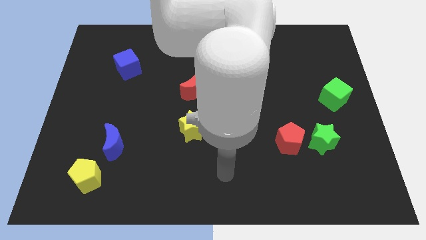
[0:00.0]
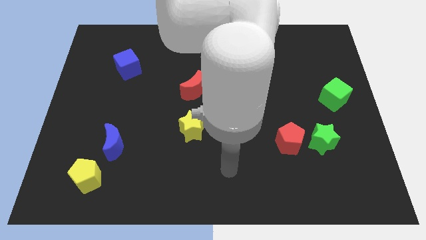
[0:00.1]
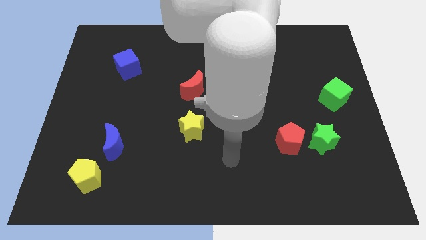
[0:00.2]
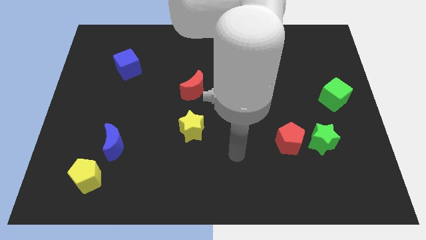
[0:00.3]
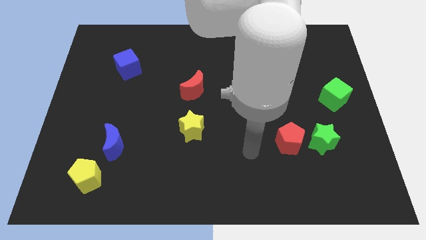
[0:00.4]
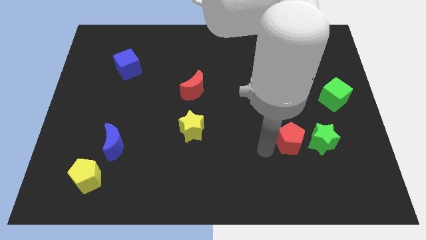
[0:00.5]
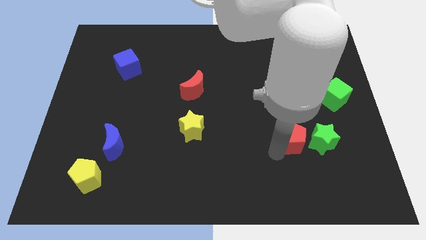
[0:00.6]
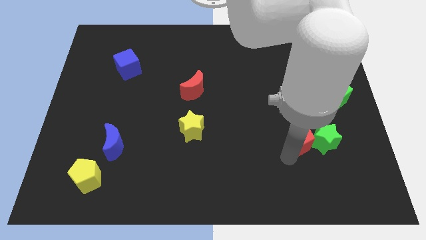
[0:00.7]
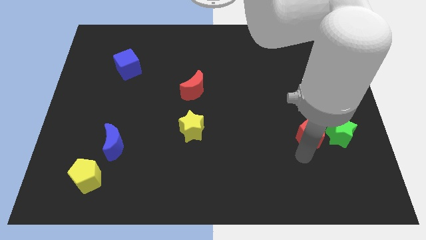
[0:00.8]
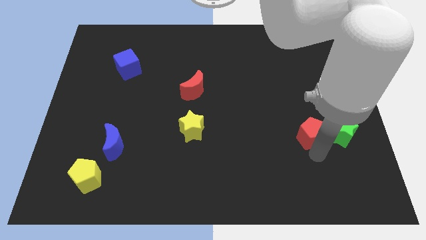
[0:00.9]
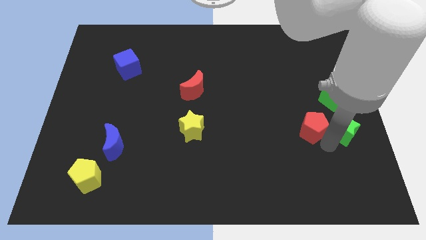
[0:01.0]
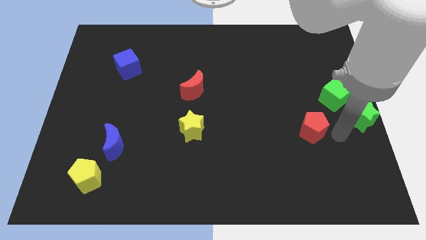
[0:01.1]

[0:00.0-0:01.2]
pull the red pentagon apart from the green star

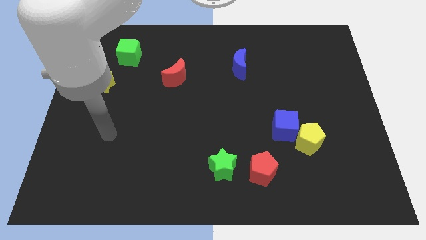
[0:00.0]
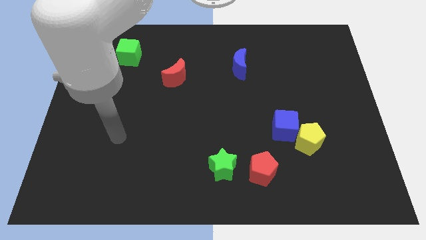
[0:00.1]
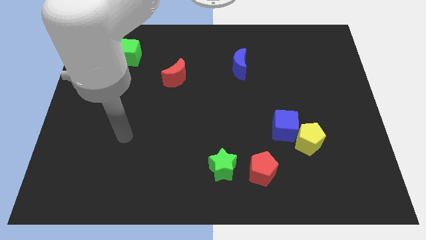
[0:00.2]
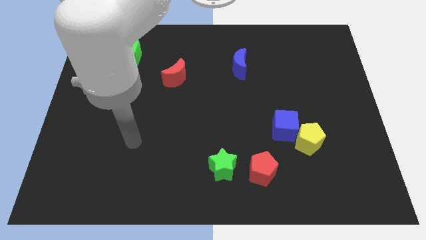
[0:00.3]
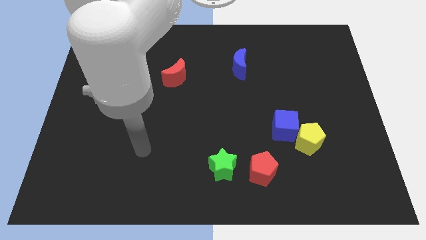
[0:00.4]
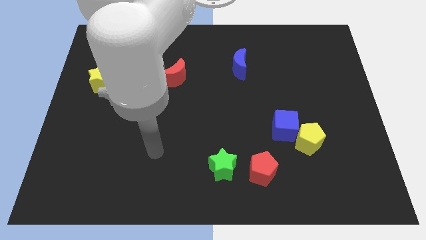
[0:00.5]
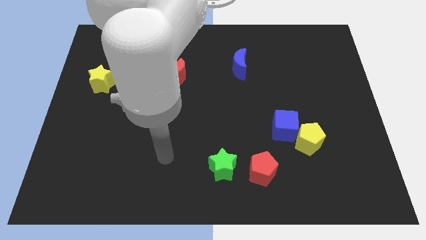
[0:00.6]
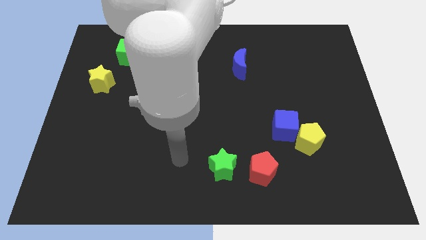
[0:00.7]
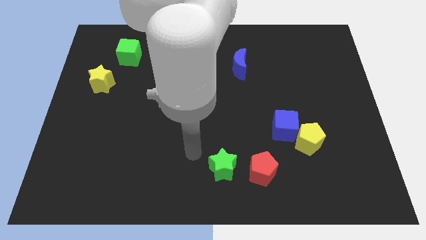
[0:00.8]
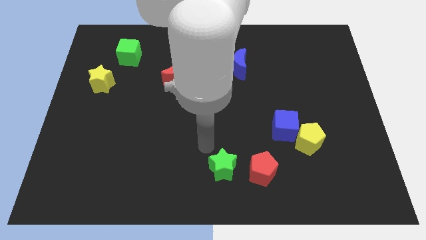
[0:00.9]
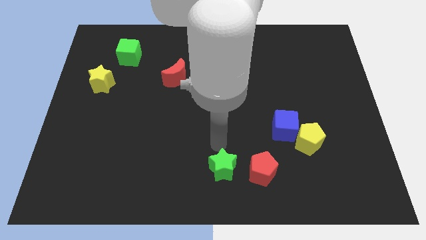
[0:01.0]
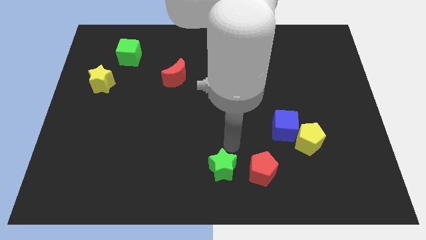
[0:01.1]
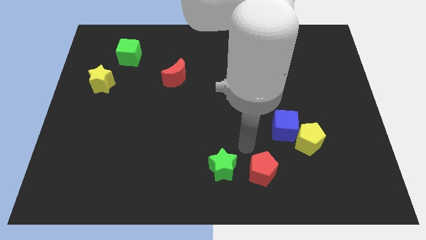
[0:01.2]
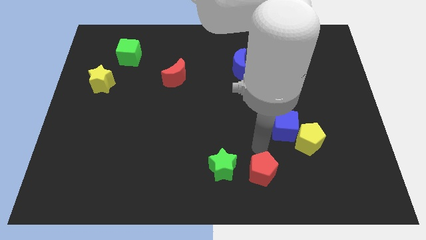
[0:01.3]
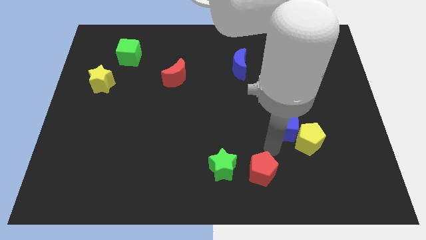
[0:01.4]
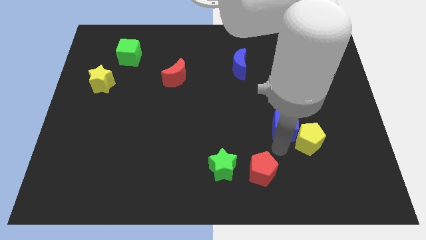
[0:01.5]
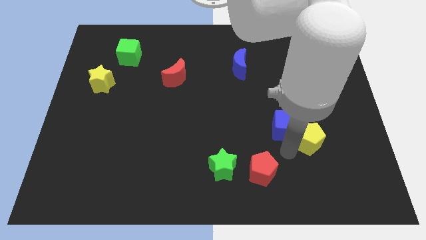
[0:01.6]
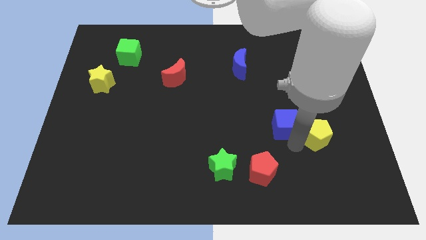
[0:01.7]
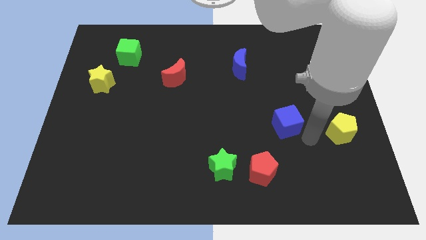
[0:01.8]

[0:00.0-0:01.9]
move the blue cube away from the yellow pentagon

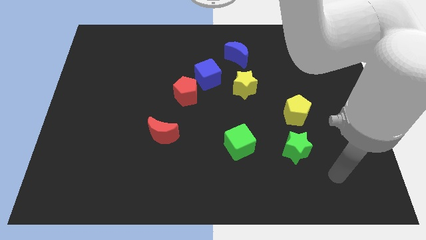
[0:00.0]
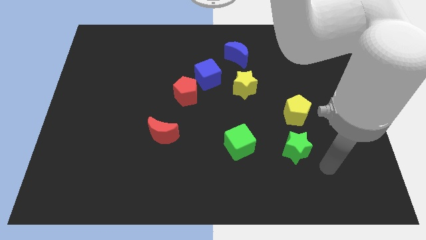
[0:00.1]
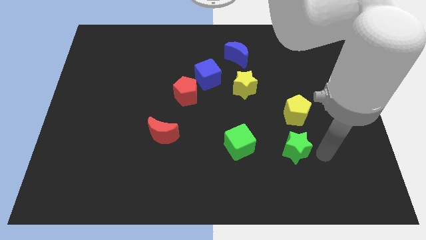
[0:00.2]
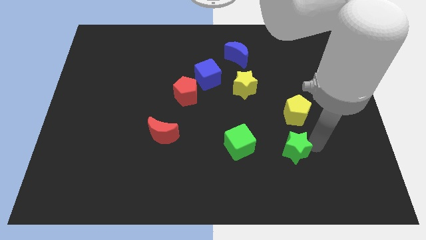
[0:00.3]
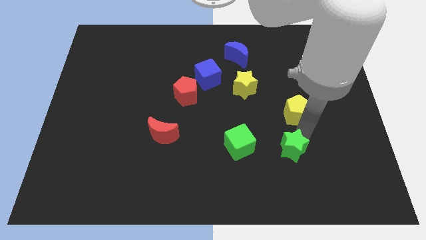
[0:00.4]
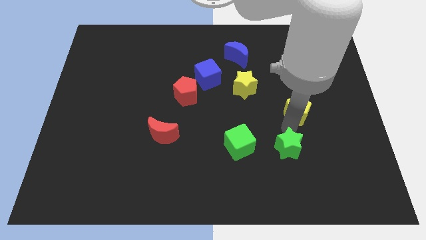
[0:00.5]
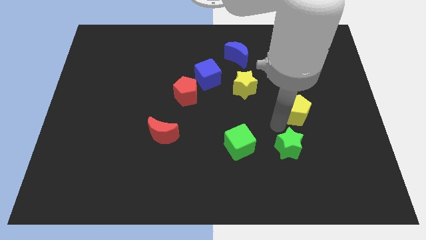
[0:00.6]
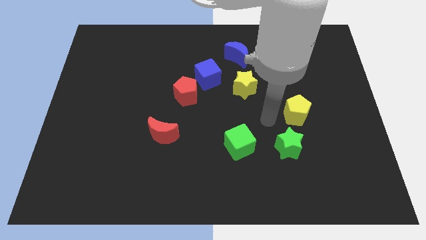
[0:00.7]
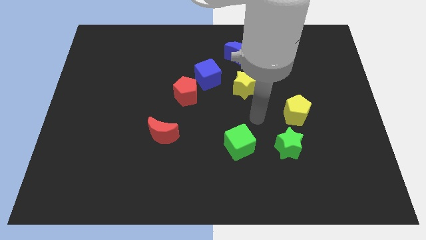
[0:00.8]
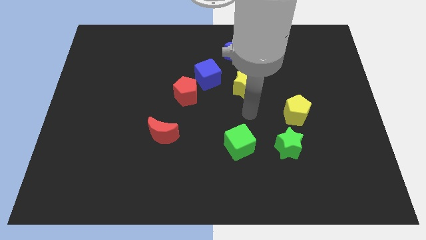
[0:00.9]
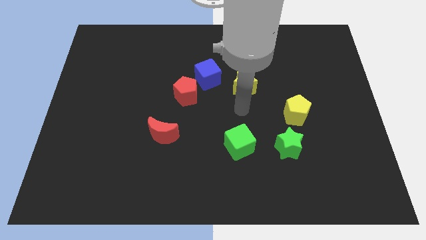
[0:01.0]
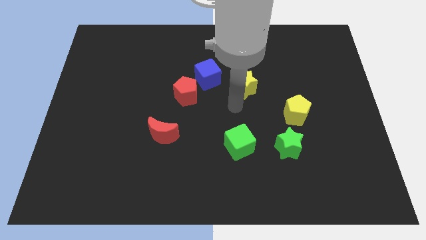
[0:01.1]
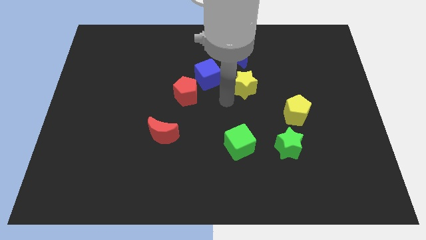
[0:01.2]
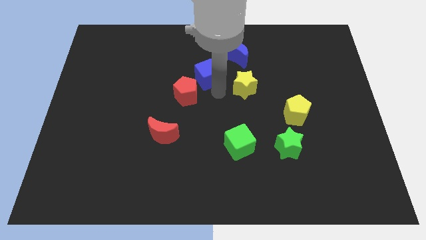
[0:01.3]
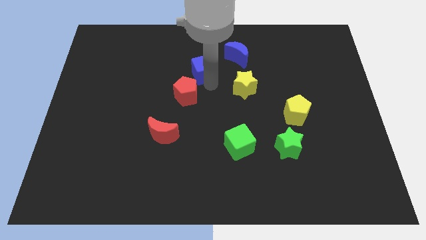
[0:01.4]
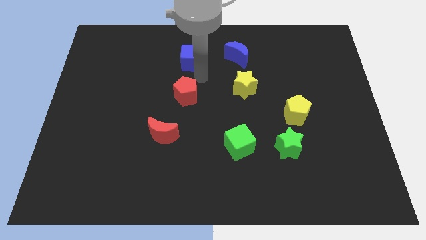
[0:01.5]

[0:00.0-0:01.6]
separate the red pentagon from the blue cube

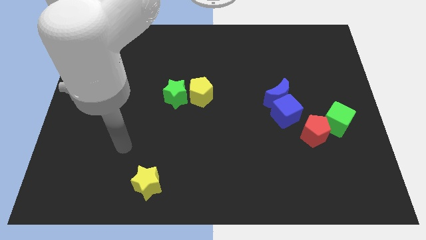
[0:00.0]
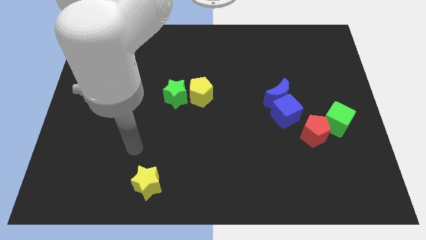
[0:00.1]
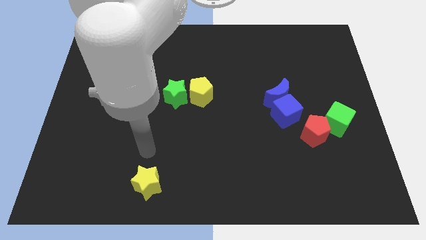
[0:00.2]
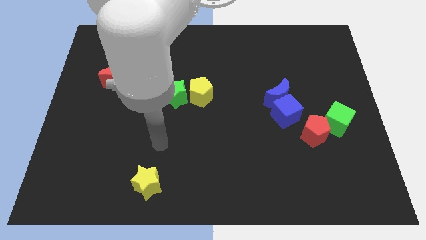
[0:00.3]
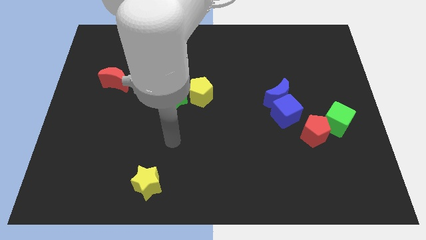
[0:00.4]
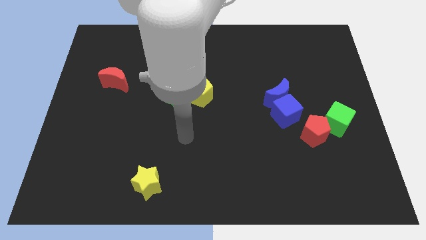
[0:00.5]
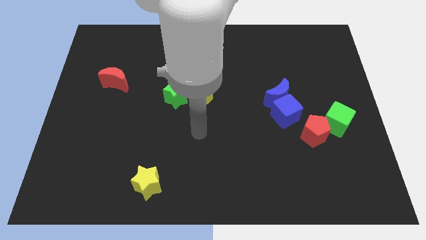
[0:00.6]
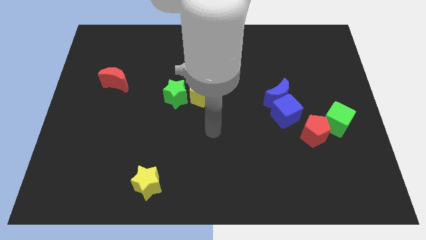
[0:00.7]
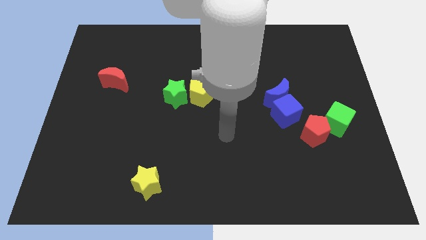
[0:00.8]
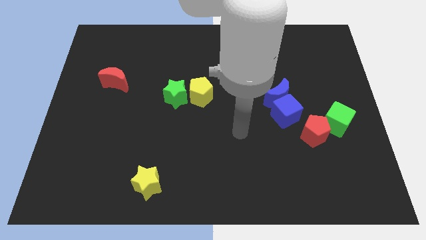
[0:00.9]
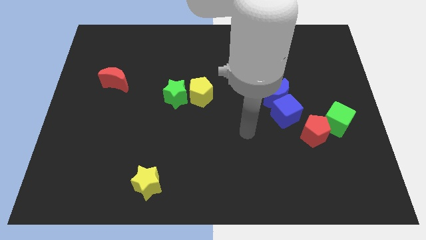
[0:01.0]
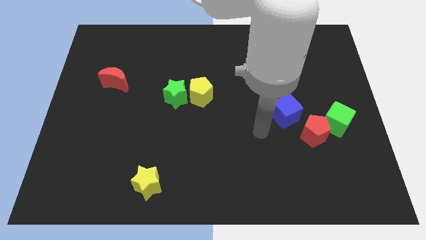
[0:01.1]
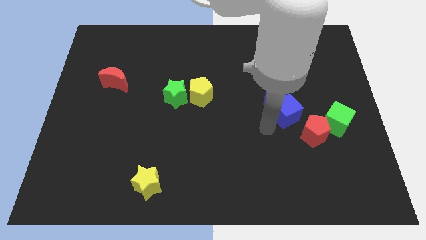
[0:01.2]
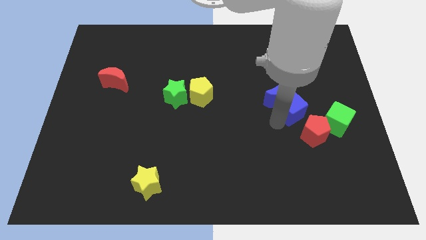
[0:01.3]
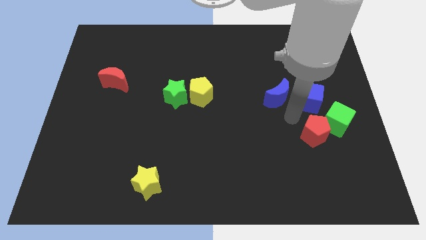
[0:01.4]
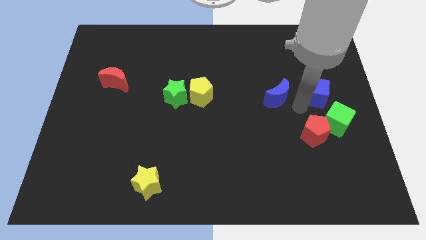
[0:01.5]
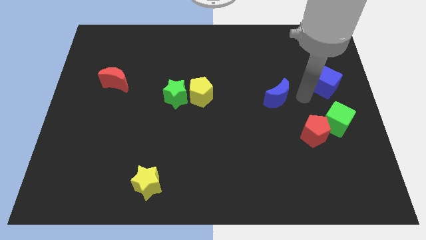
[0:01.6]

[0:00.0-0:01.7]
move the blue moon away from the blue cube

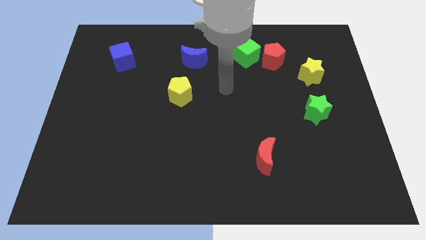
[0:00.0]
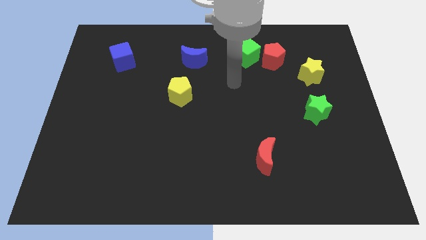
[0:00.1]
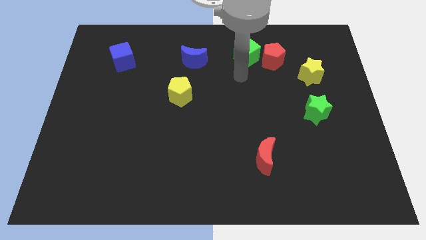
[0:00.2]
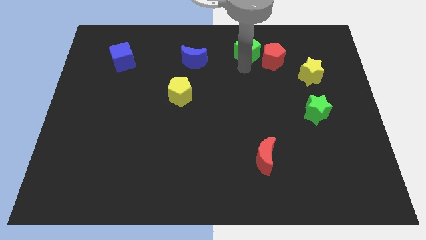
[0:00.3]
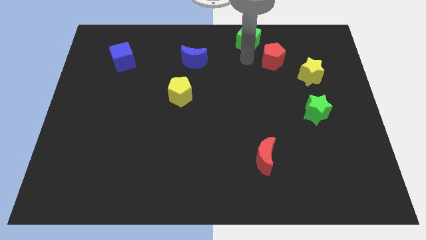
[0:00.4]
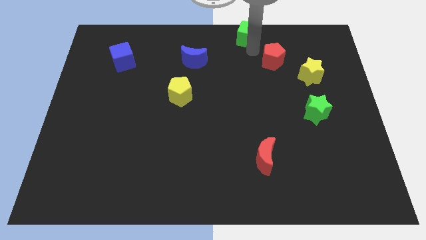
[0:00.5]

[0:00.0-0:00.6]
pull the red pentagon apart from the green cube

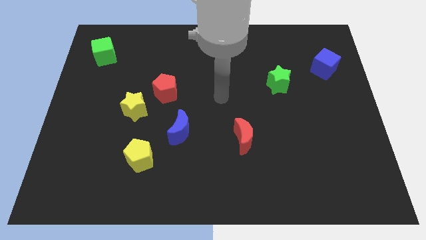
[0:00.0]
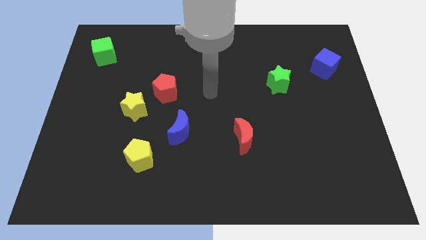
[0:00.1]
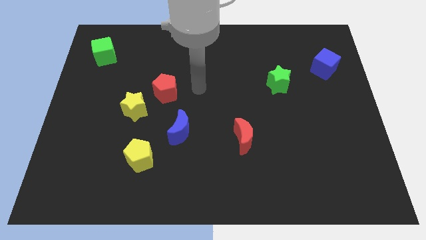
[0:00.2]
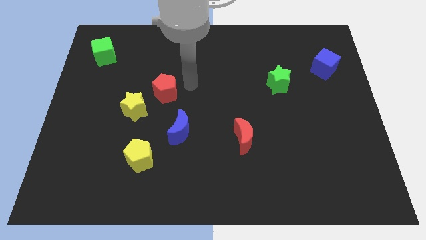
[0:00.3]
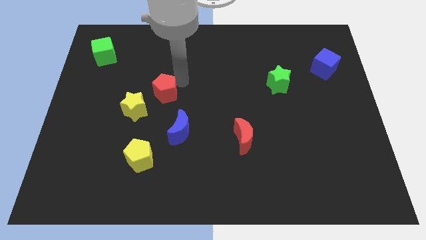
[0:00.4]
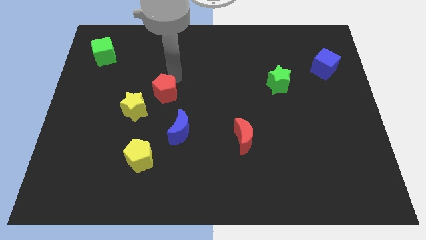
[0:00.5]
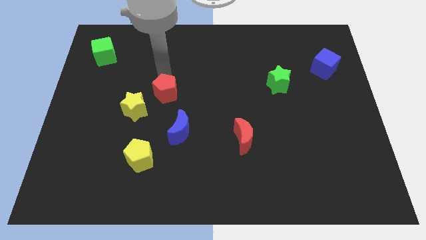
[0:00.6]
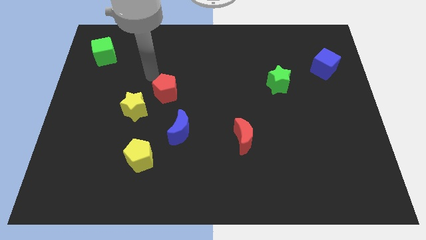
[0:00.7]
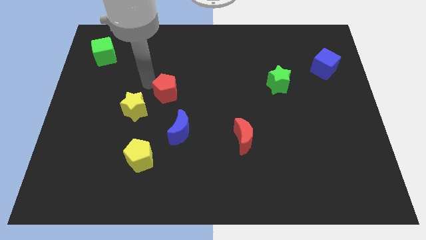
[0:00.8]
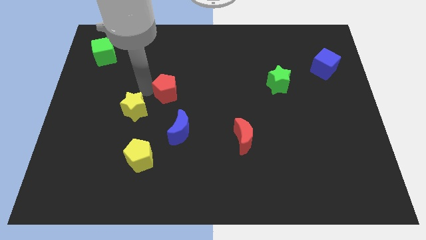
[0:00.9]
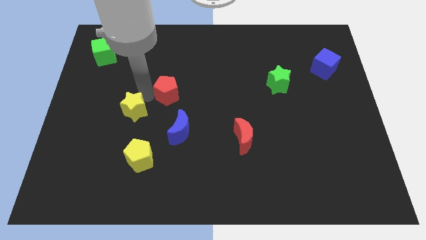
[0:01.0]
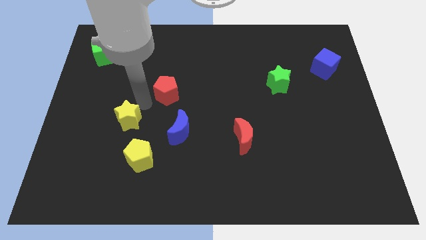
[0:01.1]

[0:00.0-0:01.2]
move the red pentagon away from the yellow star

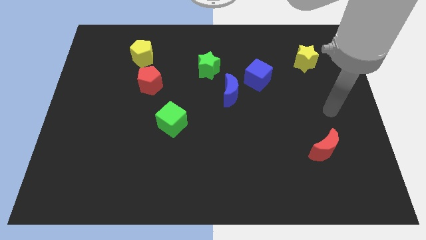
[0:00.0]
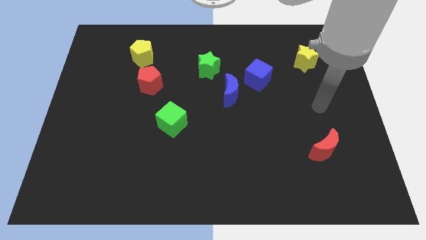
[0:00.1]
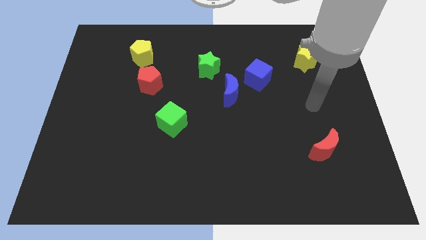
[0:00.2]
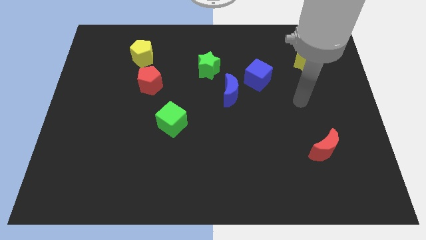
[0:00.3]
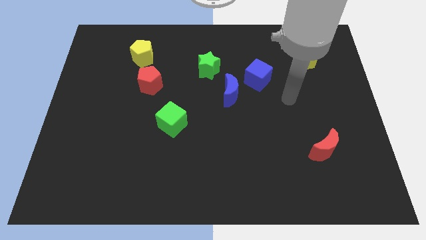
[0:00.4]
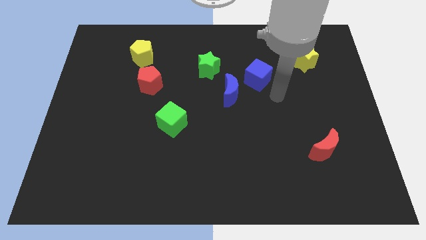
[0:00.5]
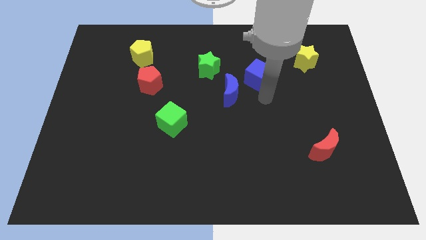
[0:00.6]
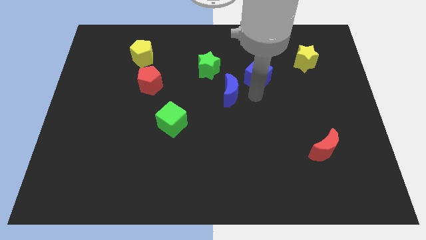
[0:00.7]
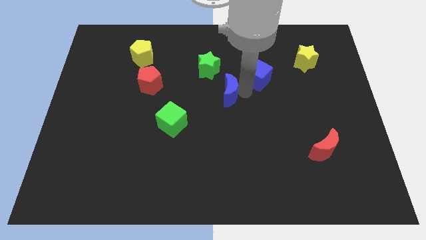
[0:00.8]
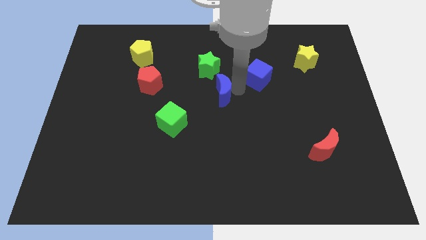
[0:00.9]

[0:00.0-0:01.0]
pull the blue cube apart from the blue moon

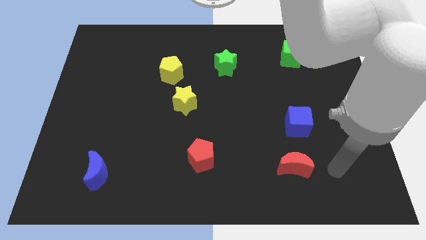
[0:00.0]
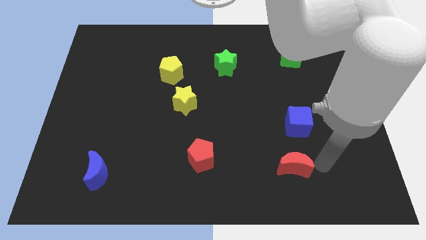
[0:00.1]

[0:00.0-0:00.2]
pull the yellow star apart from the yellow pentagon
